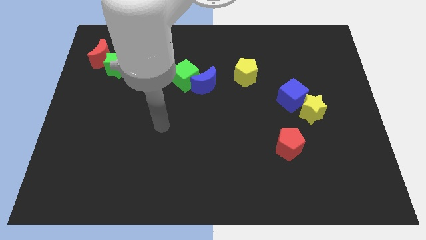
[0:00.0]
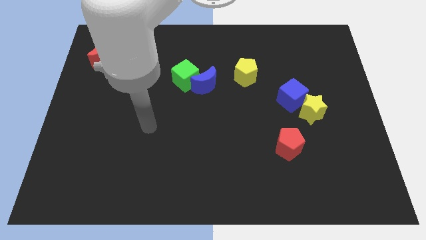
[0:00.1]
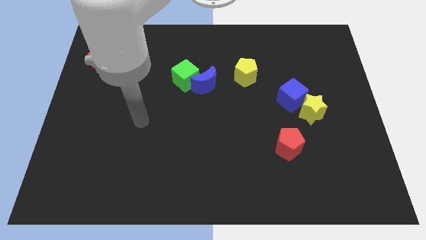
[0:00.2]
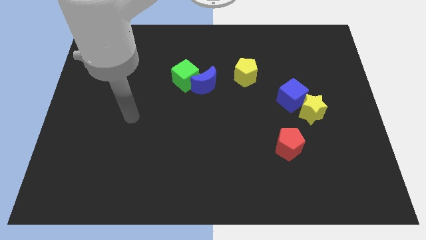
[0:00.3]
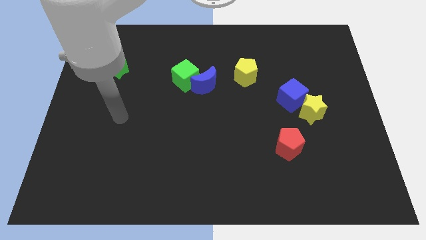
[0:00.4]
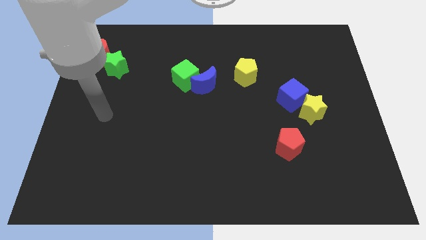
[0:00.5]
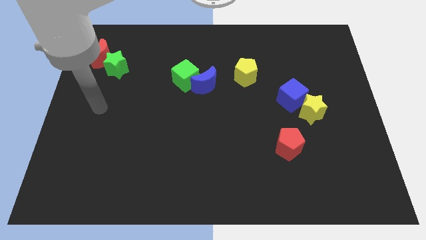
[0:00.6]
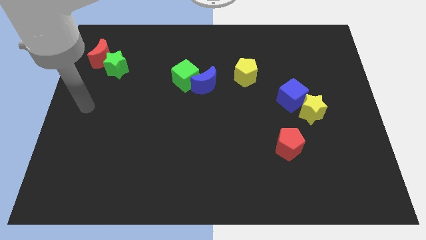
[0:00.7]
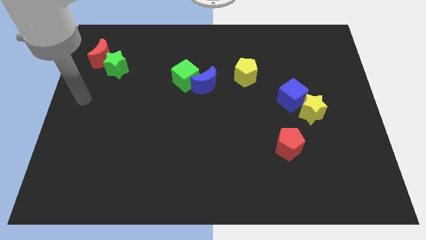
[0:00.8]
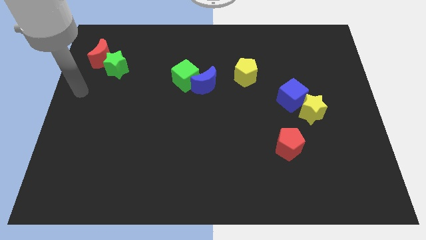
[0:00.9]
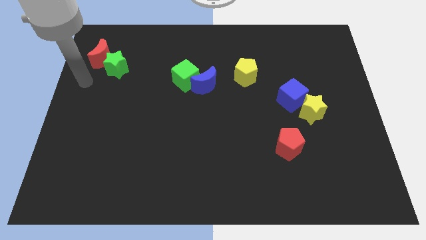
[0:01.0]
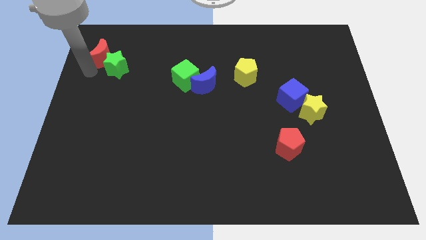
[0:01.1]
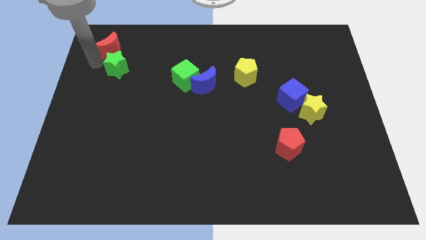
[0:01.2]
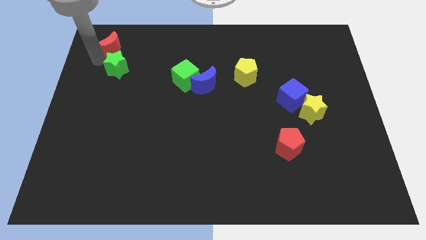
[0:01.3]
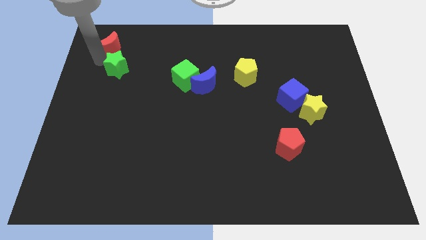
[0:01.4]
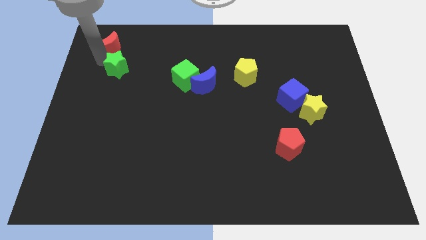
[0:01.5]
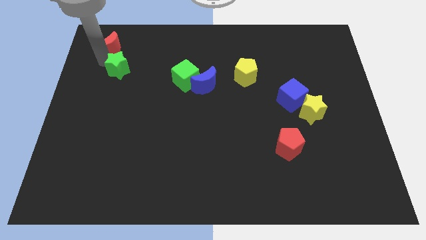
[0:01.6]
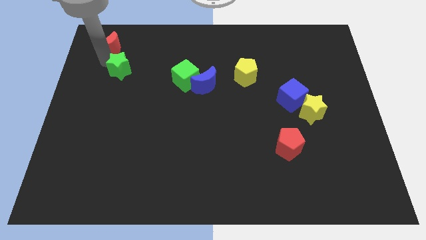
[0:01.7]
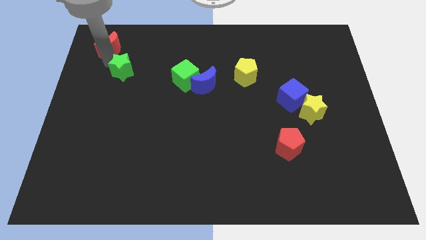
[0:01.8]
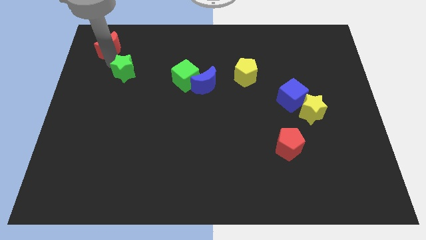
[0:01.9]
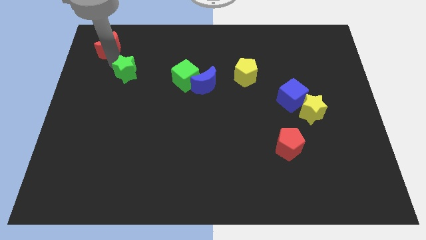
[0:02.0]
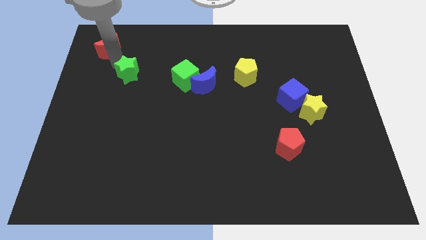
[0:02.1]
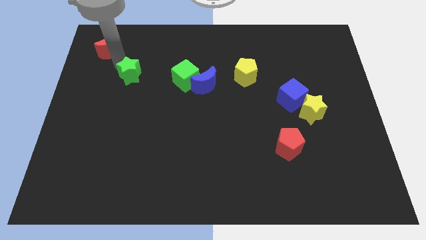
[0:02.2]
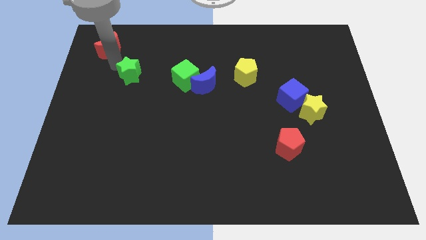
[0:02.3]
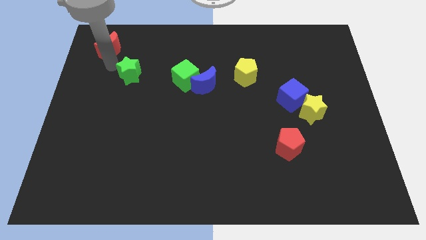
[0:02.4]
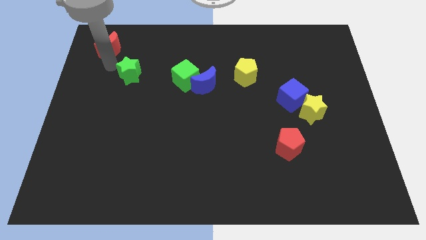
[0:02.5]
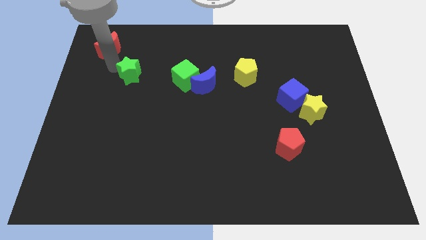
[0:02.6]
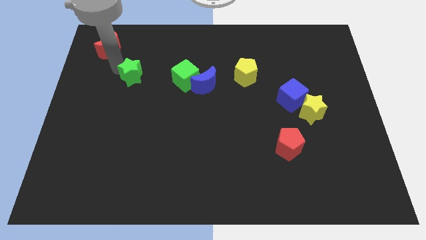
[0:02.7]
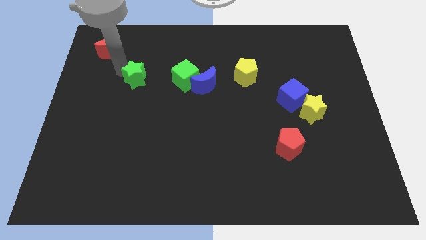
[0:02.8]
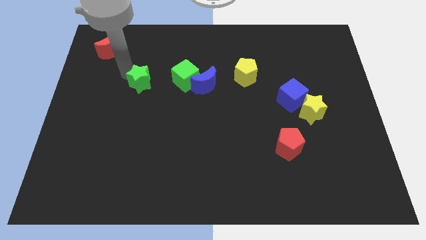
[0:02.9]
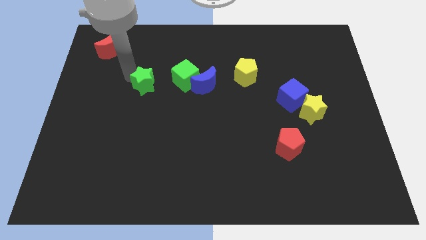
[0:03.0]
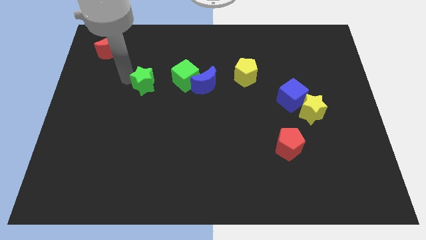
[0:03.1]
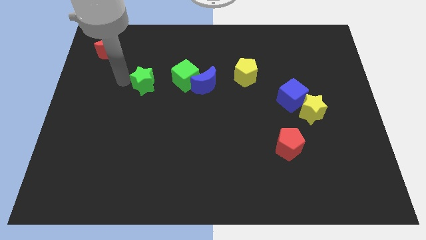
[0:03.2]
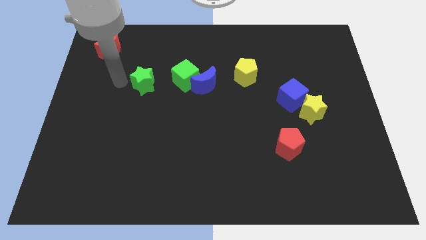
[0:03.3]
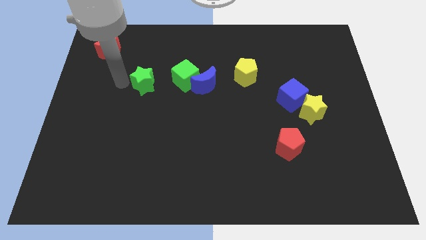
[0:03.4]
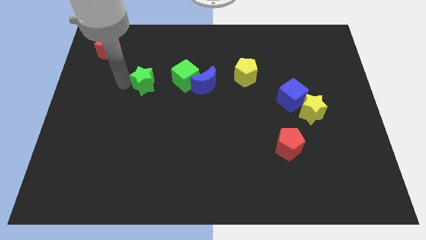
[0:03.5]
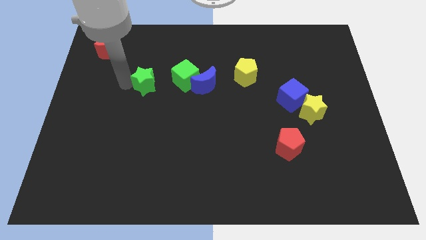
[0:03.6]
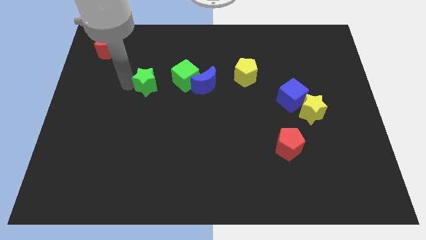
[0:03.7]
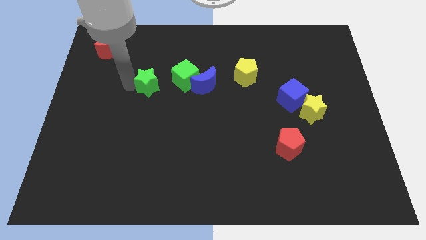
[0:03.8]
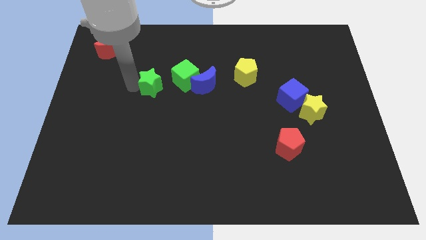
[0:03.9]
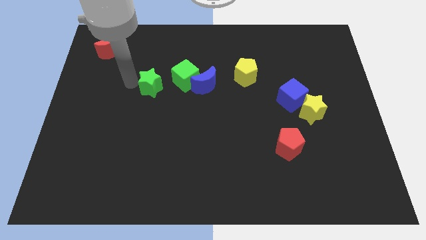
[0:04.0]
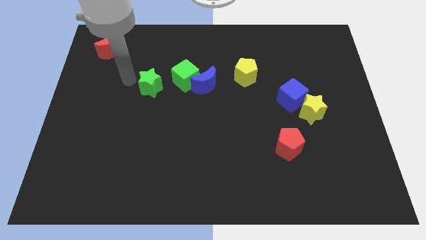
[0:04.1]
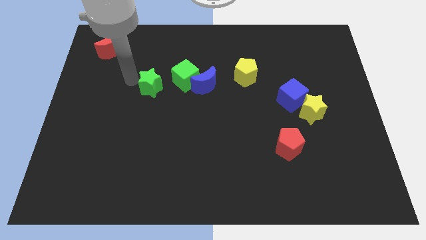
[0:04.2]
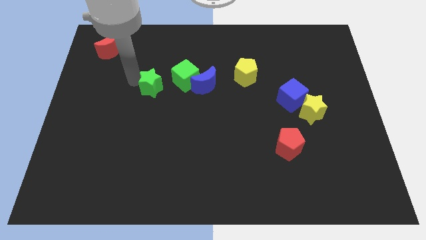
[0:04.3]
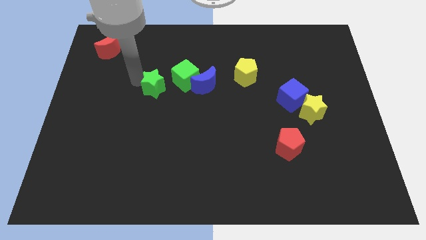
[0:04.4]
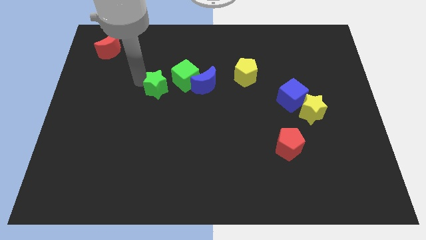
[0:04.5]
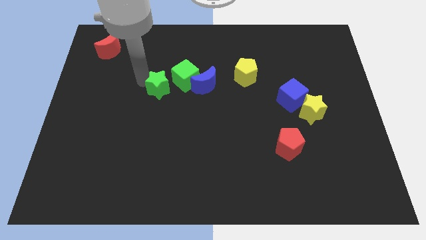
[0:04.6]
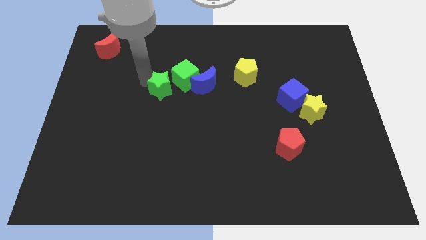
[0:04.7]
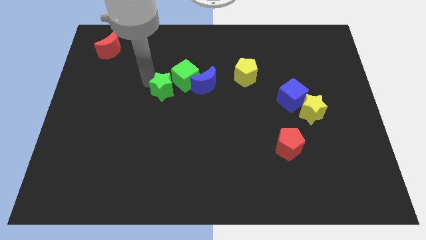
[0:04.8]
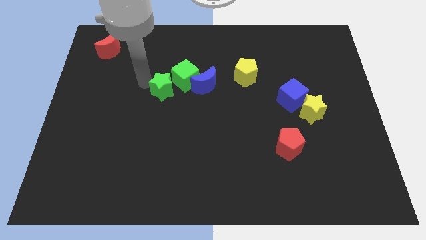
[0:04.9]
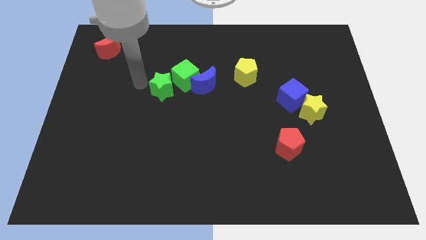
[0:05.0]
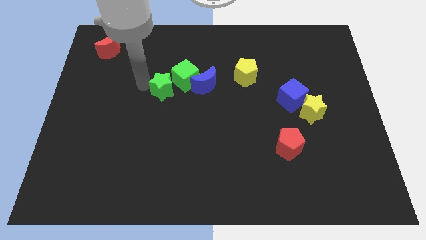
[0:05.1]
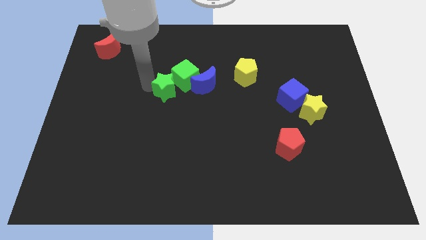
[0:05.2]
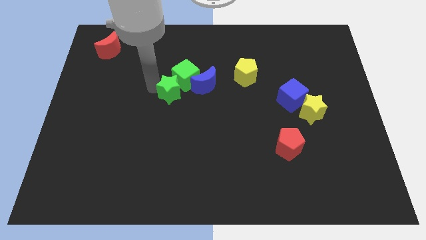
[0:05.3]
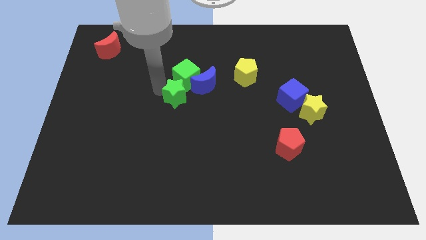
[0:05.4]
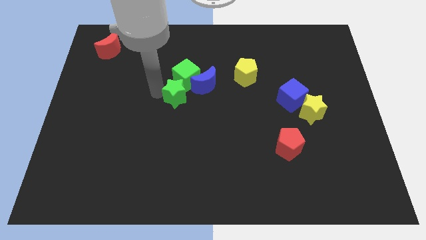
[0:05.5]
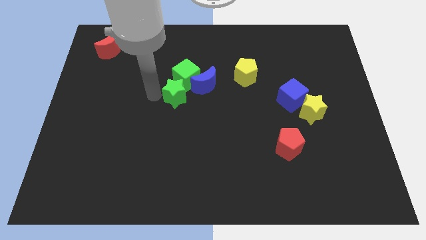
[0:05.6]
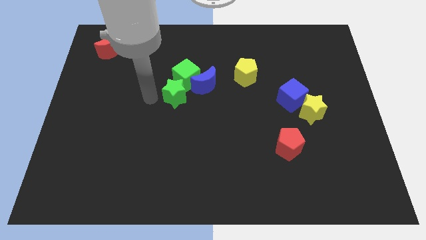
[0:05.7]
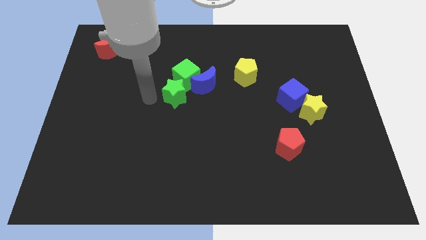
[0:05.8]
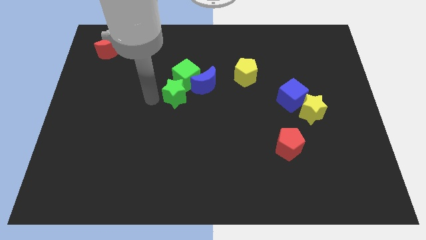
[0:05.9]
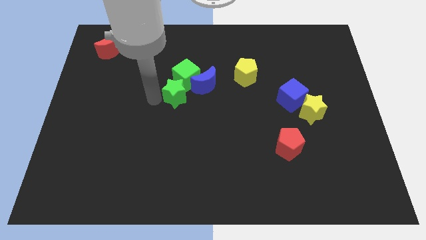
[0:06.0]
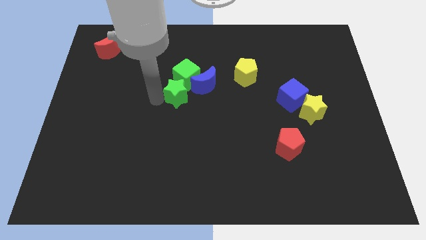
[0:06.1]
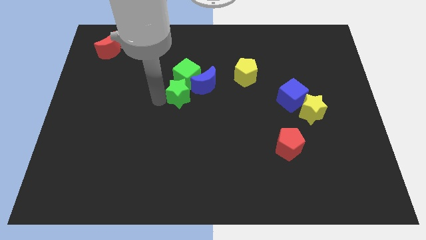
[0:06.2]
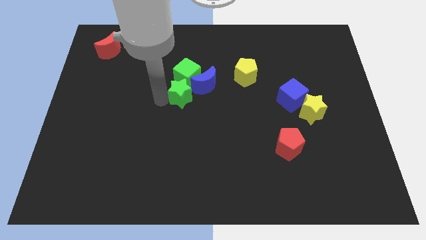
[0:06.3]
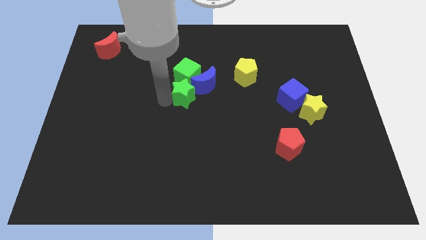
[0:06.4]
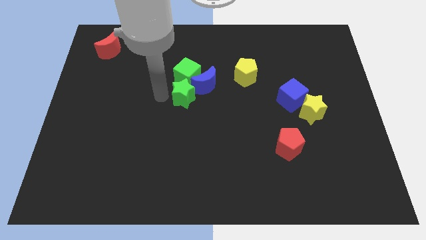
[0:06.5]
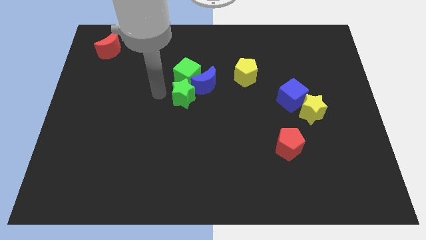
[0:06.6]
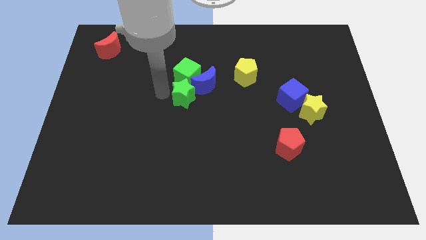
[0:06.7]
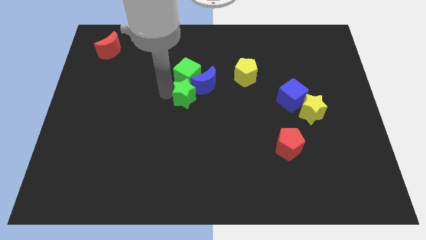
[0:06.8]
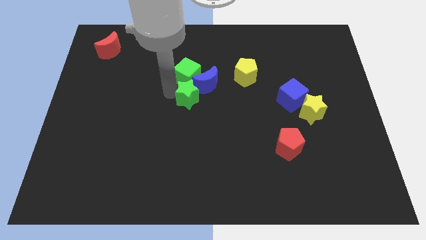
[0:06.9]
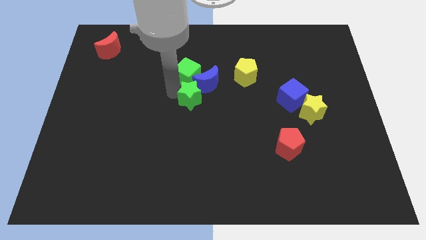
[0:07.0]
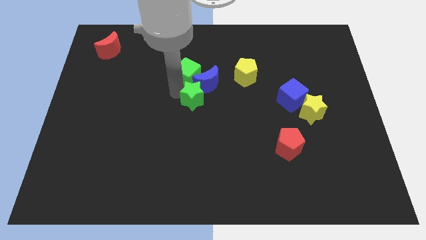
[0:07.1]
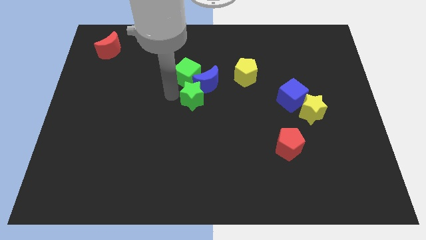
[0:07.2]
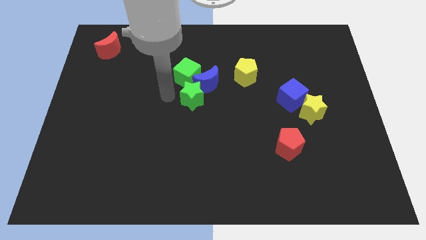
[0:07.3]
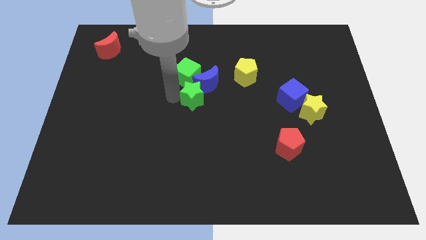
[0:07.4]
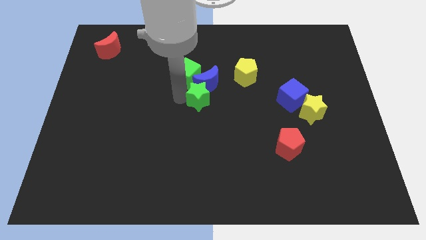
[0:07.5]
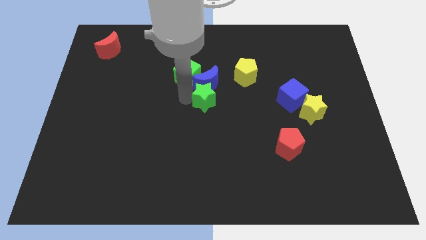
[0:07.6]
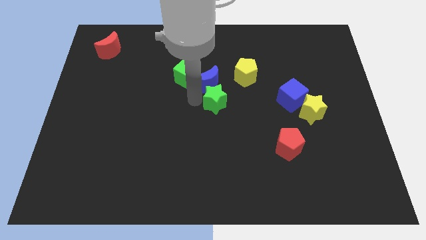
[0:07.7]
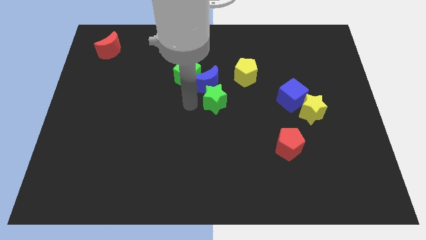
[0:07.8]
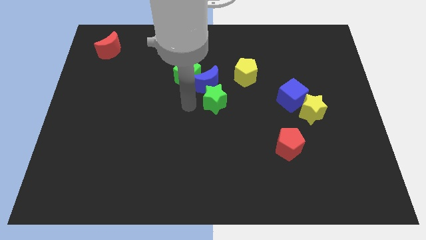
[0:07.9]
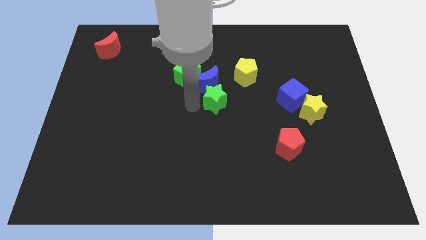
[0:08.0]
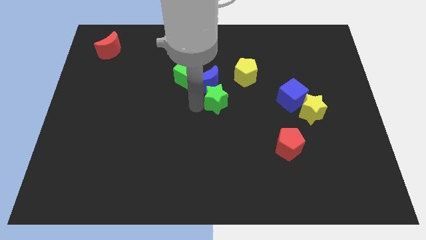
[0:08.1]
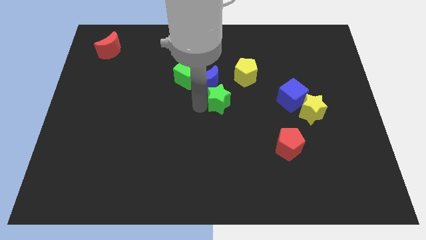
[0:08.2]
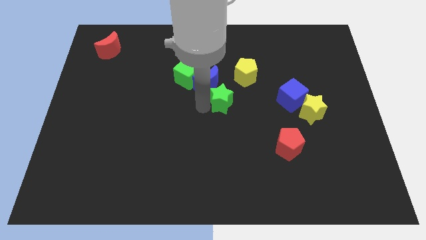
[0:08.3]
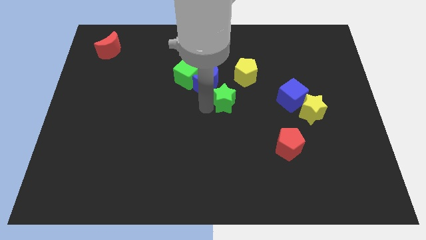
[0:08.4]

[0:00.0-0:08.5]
push the green star left of the blue cube
